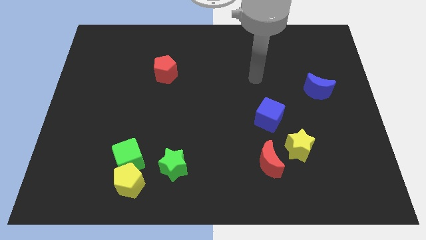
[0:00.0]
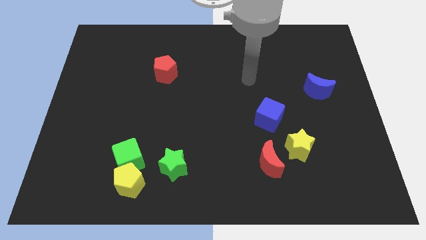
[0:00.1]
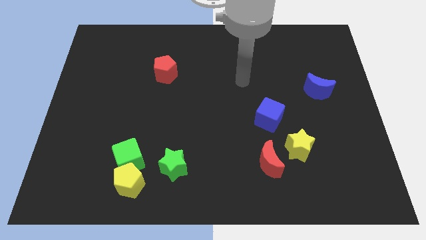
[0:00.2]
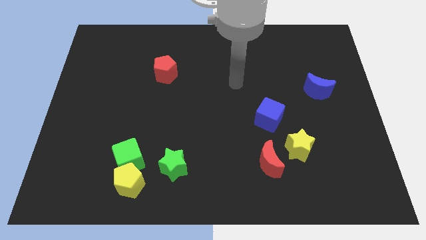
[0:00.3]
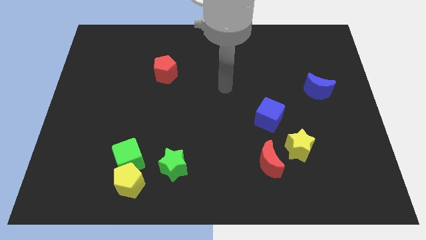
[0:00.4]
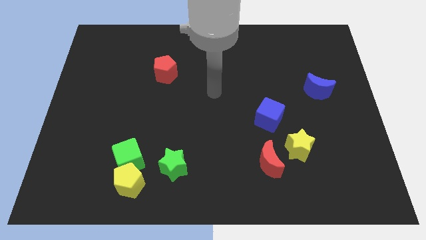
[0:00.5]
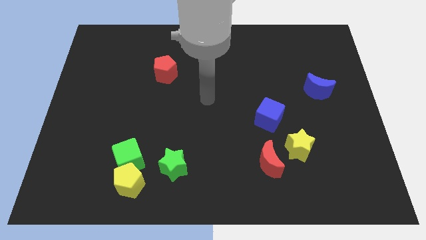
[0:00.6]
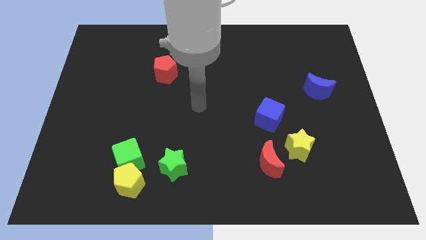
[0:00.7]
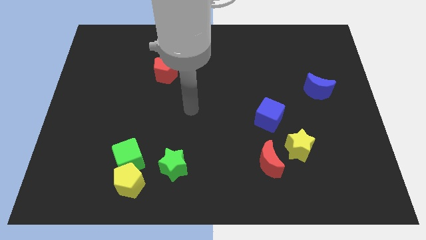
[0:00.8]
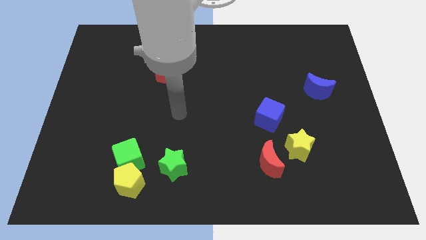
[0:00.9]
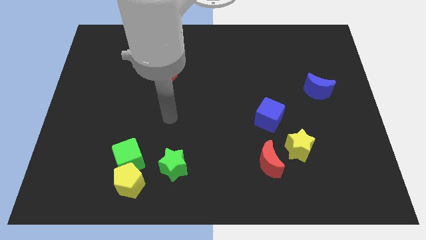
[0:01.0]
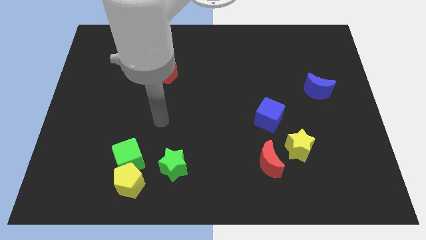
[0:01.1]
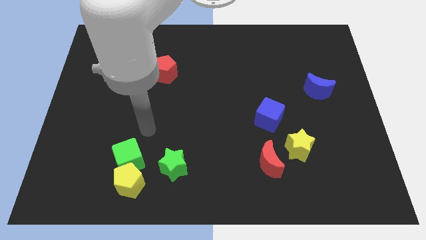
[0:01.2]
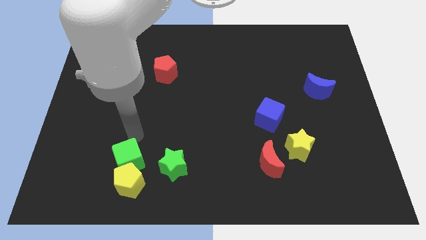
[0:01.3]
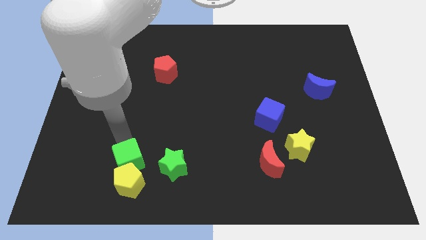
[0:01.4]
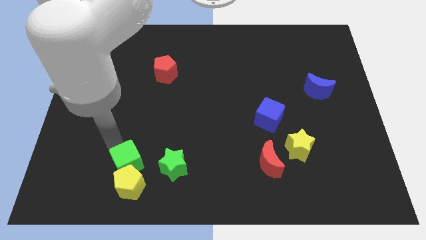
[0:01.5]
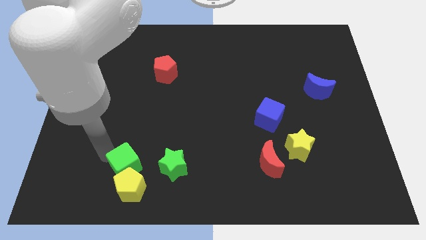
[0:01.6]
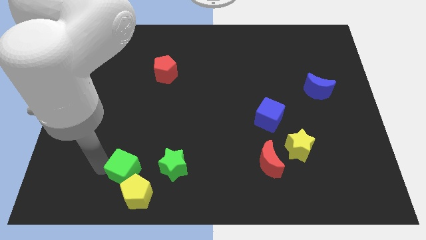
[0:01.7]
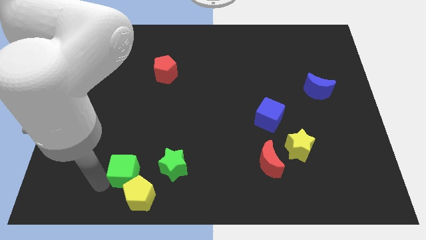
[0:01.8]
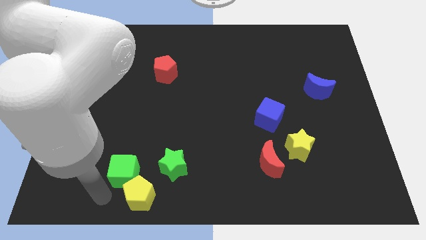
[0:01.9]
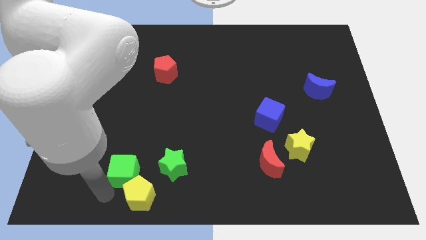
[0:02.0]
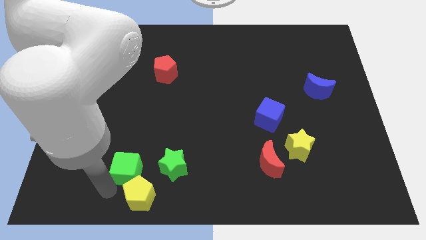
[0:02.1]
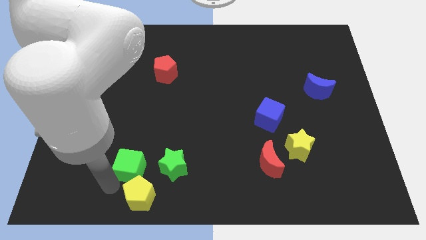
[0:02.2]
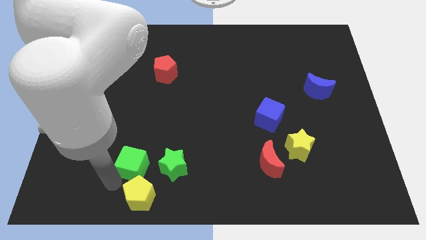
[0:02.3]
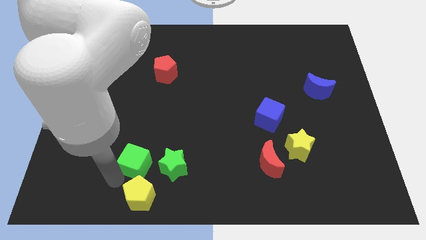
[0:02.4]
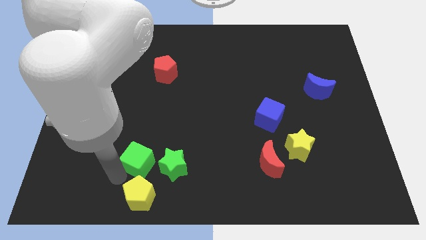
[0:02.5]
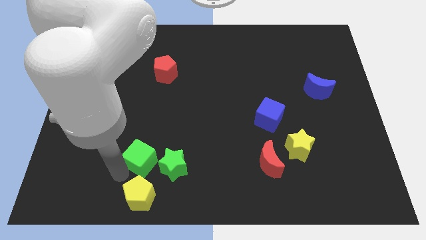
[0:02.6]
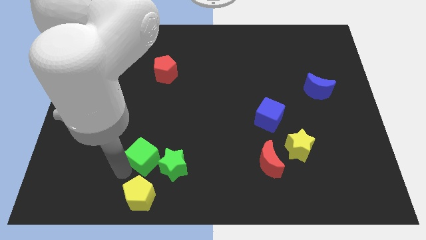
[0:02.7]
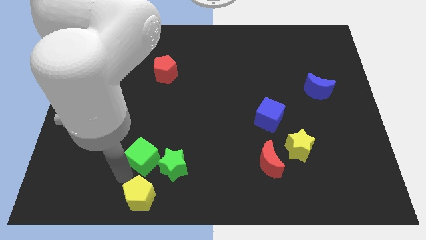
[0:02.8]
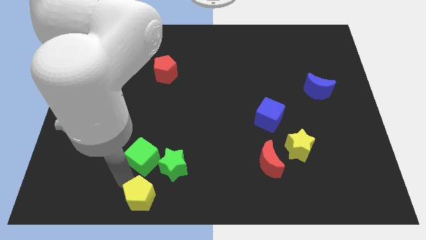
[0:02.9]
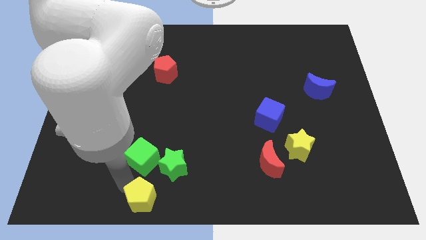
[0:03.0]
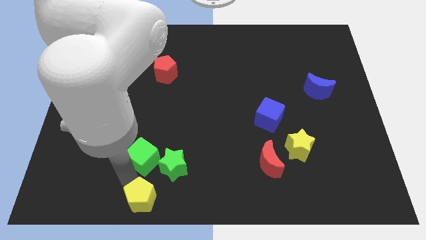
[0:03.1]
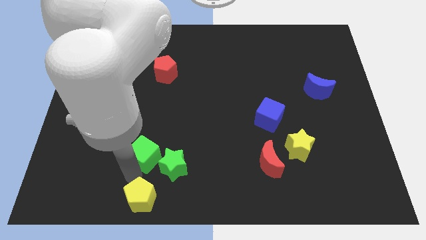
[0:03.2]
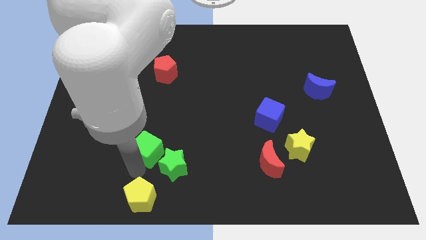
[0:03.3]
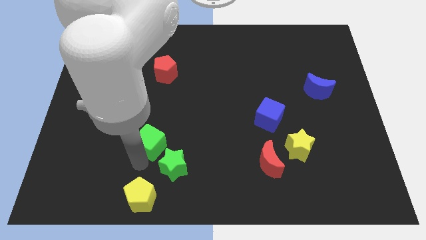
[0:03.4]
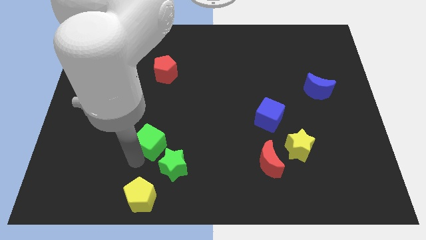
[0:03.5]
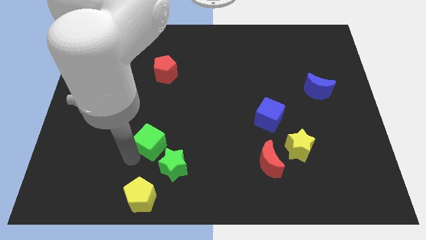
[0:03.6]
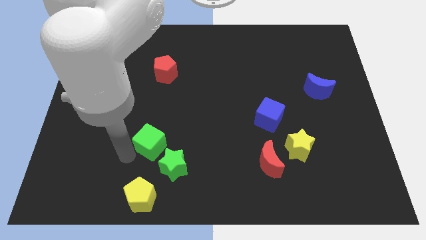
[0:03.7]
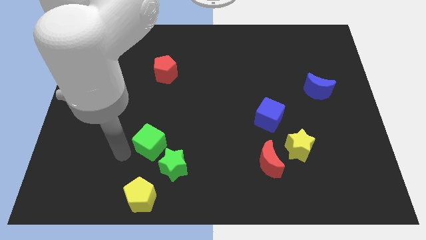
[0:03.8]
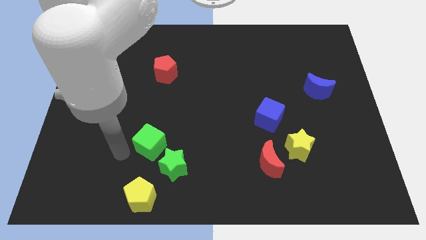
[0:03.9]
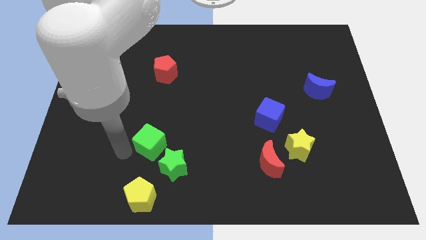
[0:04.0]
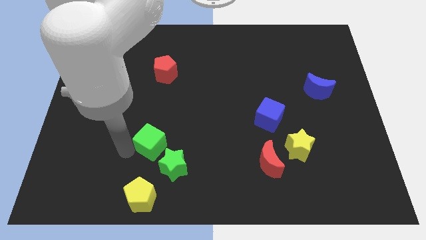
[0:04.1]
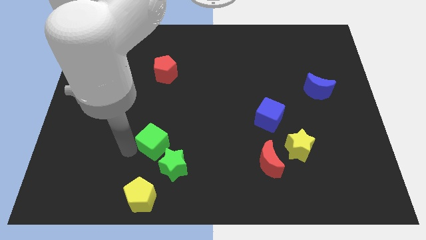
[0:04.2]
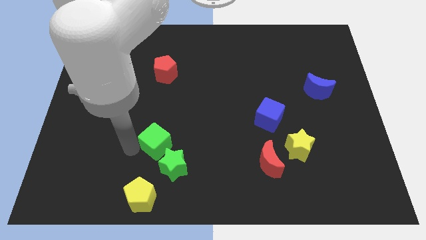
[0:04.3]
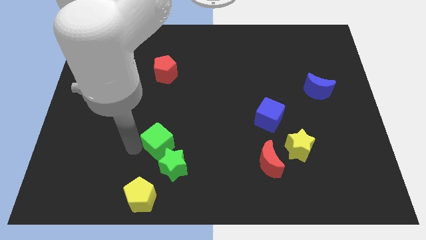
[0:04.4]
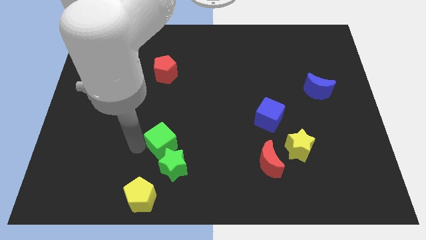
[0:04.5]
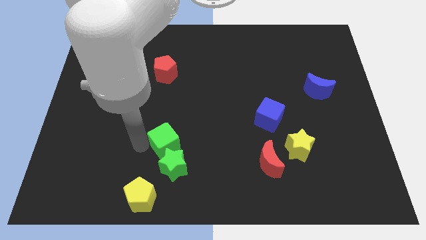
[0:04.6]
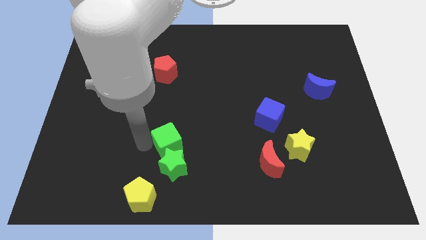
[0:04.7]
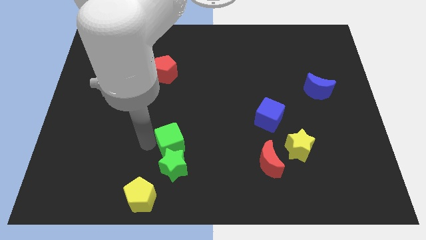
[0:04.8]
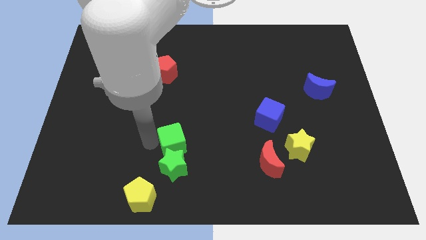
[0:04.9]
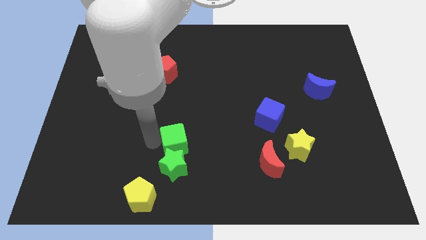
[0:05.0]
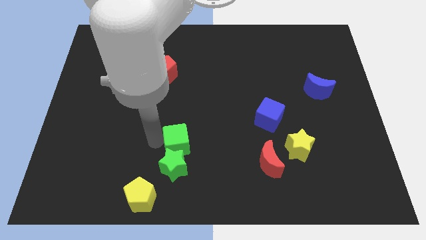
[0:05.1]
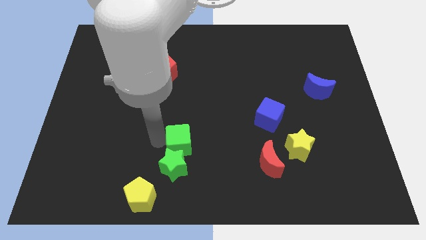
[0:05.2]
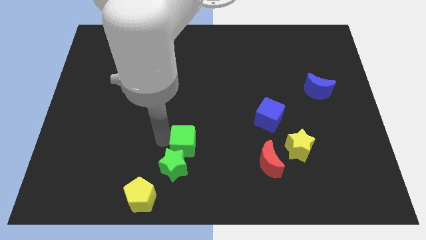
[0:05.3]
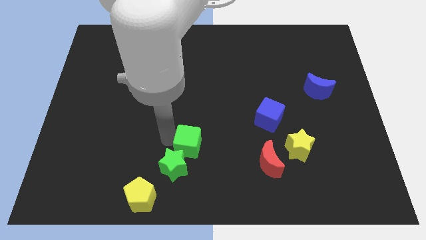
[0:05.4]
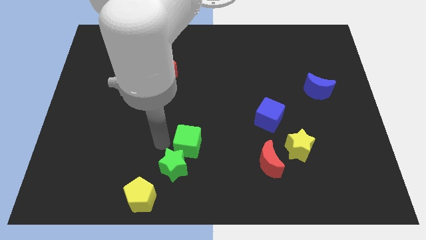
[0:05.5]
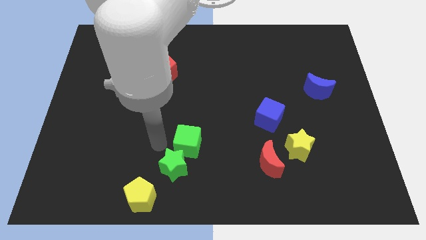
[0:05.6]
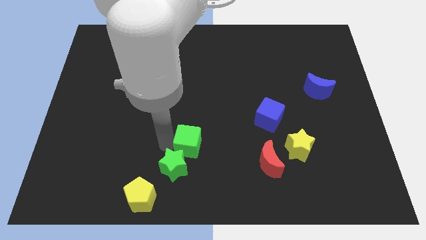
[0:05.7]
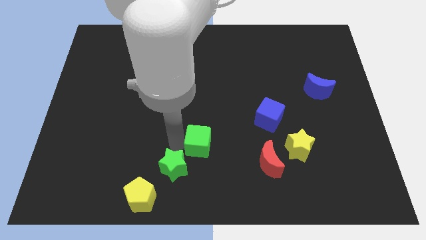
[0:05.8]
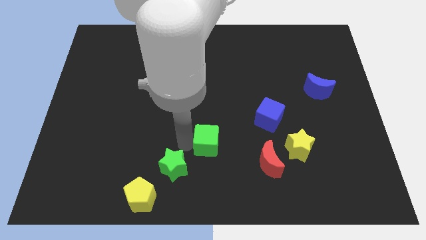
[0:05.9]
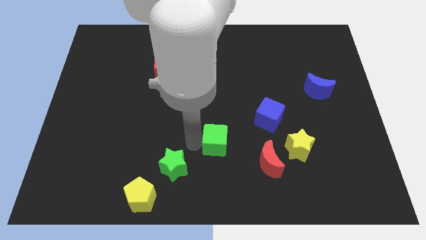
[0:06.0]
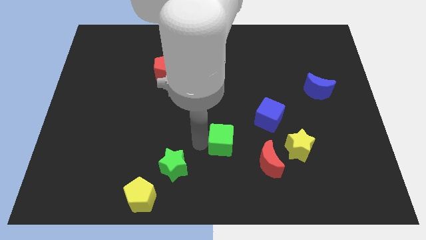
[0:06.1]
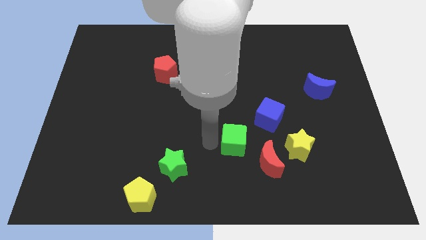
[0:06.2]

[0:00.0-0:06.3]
move the green cube left of the yellow star

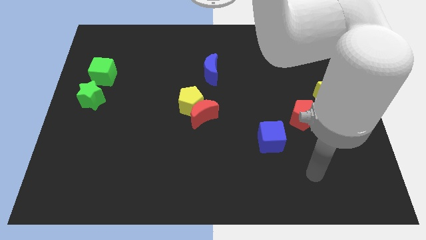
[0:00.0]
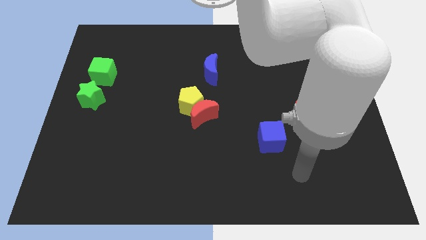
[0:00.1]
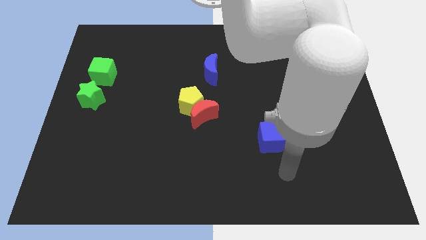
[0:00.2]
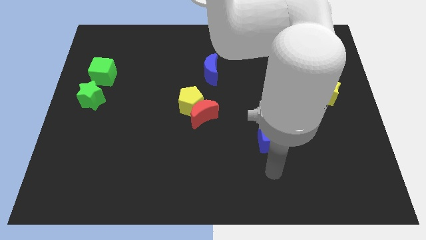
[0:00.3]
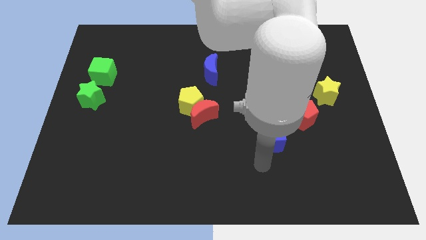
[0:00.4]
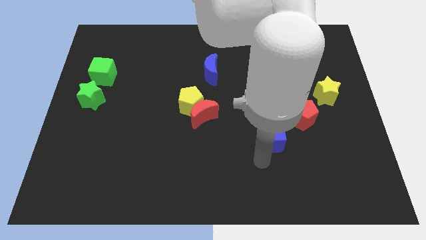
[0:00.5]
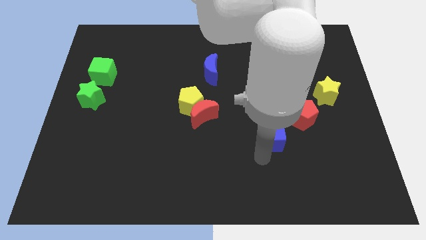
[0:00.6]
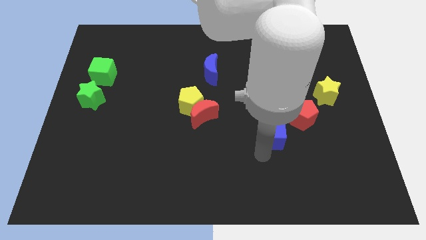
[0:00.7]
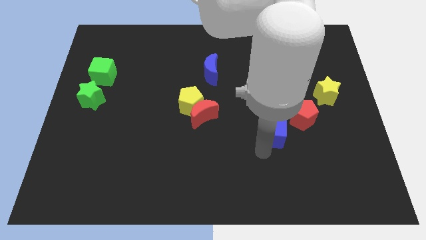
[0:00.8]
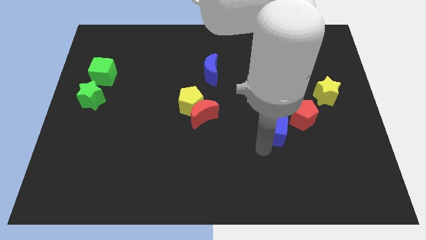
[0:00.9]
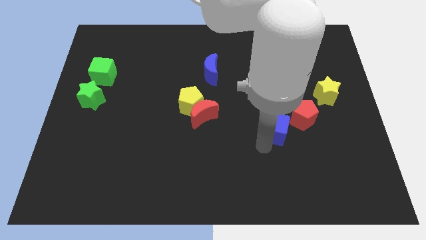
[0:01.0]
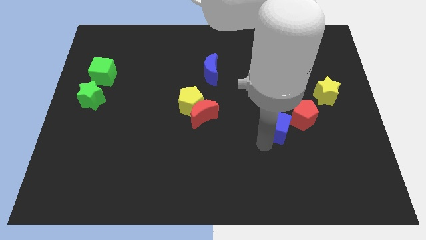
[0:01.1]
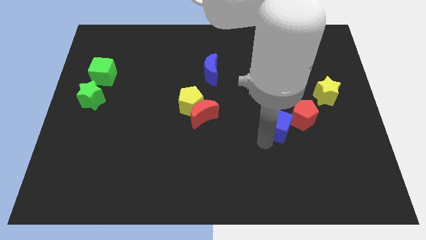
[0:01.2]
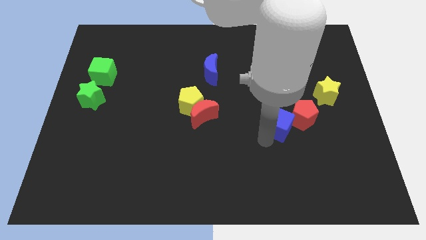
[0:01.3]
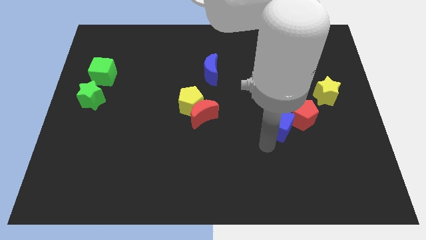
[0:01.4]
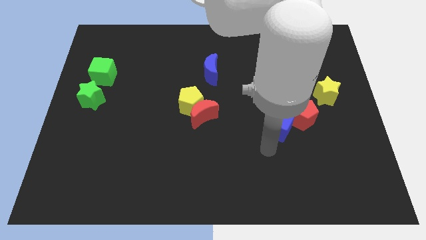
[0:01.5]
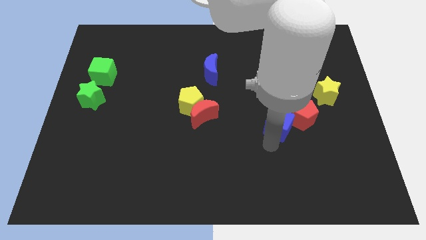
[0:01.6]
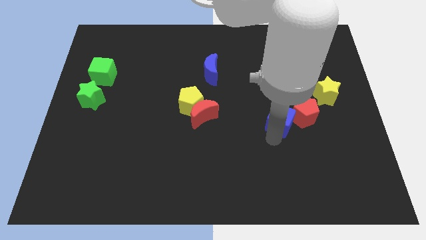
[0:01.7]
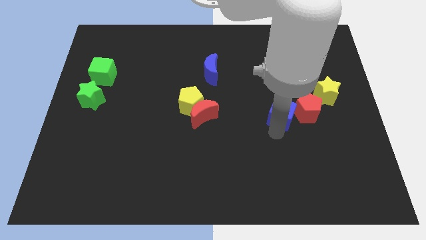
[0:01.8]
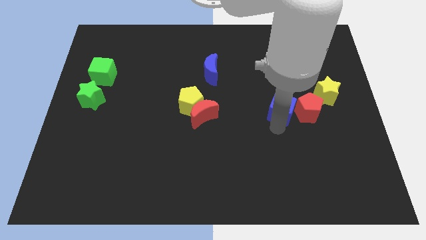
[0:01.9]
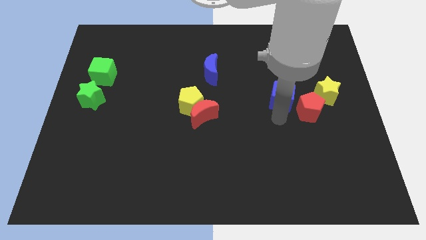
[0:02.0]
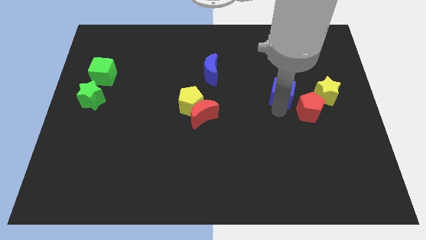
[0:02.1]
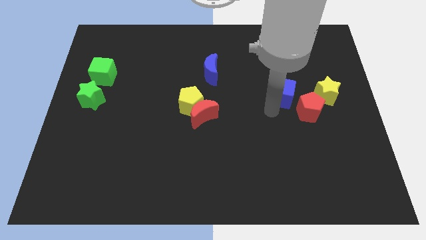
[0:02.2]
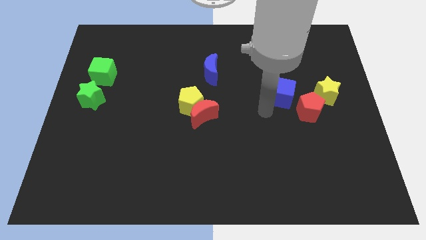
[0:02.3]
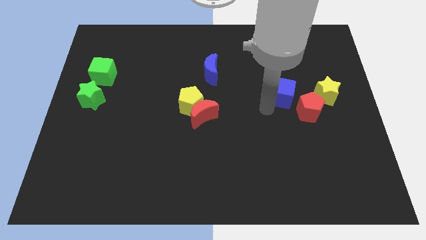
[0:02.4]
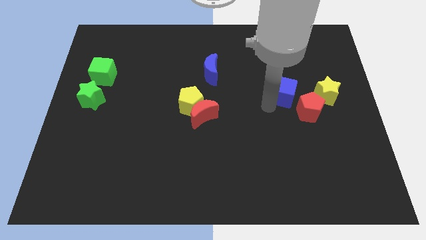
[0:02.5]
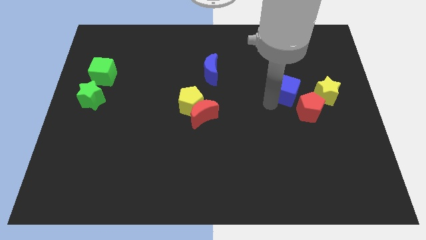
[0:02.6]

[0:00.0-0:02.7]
move the blue cube to the top of the red pentagon
